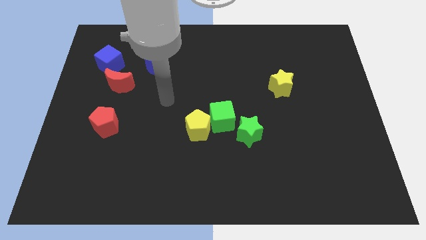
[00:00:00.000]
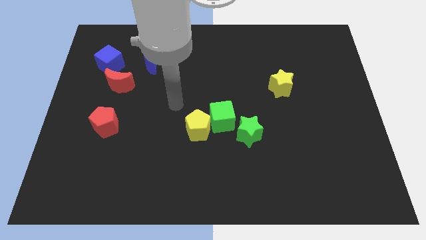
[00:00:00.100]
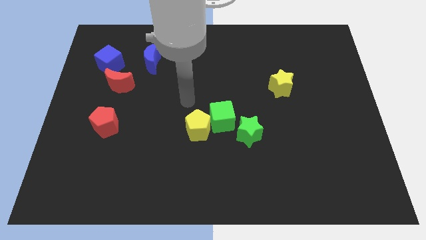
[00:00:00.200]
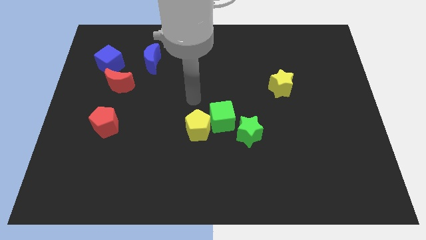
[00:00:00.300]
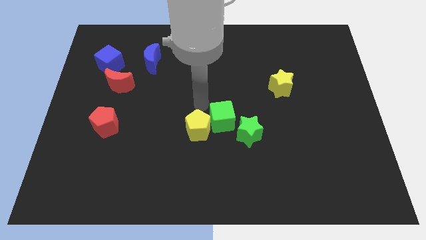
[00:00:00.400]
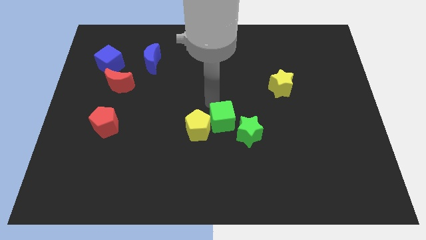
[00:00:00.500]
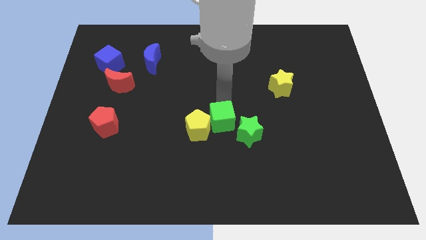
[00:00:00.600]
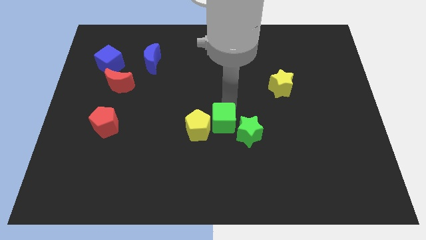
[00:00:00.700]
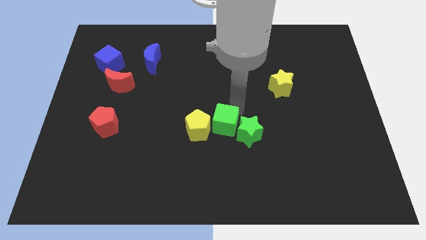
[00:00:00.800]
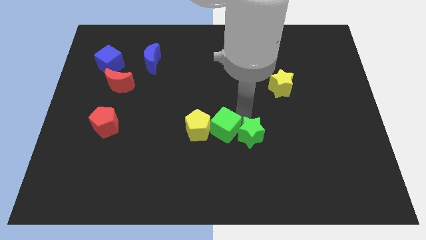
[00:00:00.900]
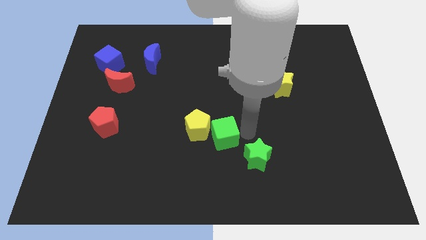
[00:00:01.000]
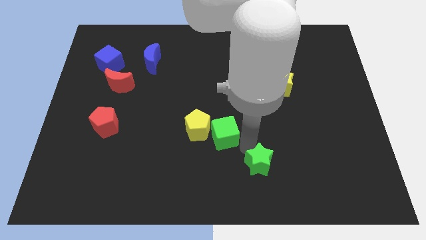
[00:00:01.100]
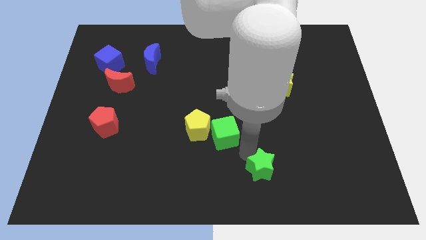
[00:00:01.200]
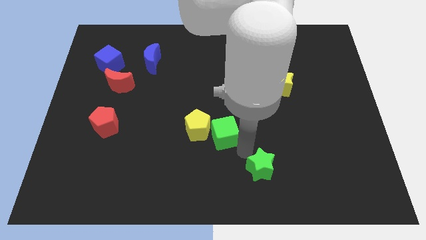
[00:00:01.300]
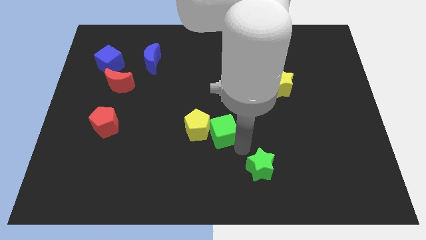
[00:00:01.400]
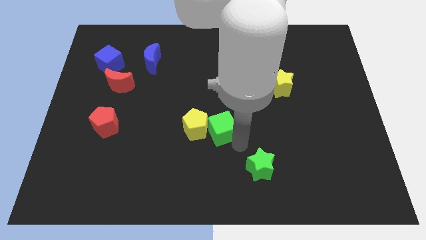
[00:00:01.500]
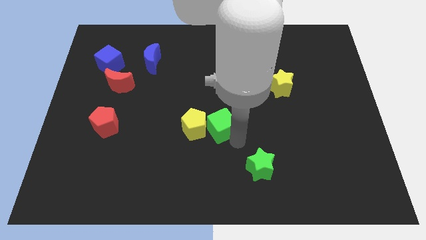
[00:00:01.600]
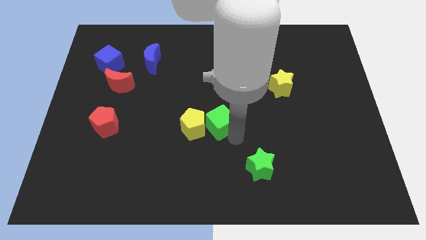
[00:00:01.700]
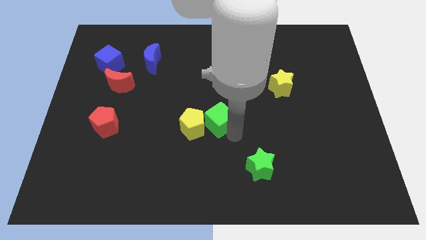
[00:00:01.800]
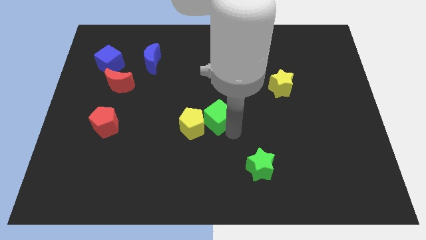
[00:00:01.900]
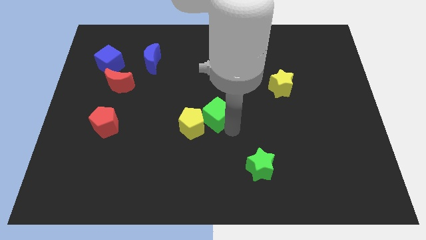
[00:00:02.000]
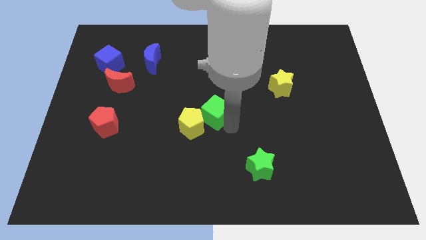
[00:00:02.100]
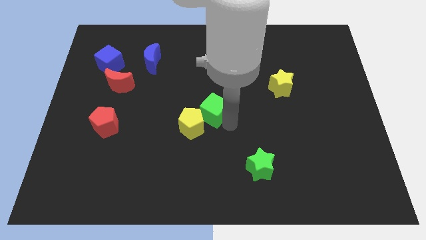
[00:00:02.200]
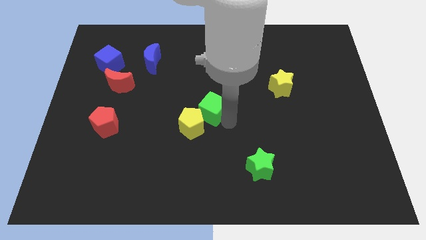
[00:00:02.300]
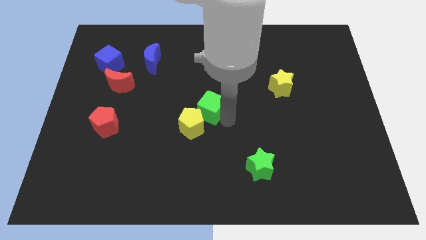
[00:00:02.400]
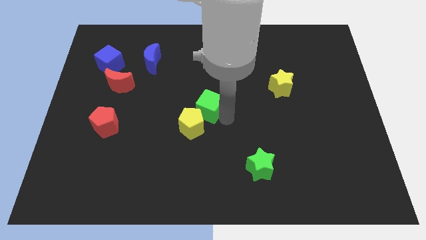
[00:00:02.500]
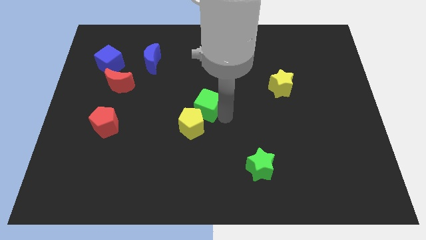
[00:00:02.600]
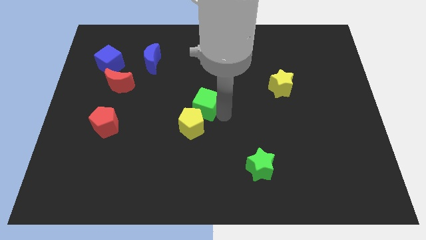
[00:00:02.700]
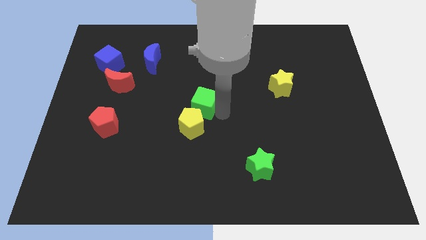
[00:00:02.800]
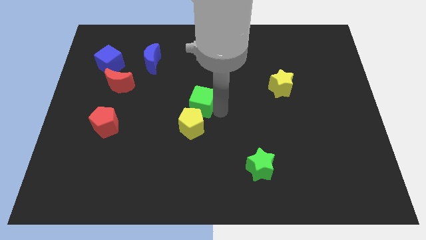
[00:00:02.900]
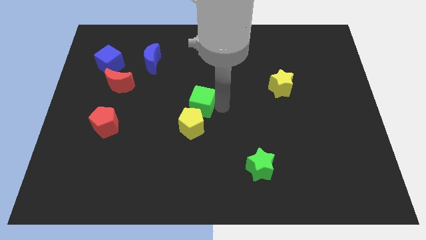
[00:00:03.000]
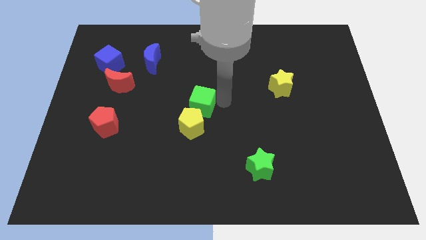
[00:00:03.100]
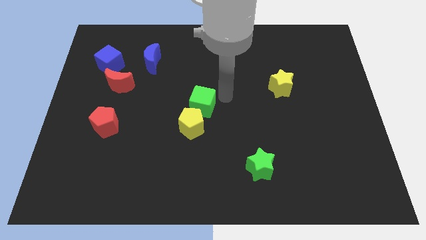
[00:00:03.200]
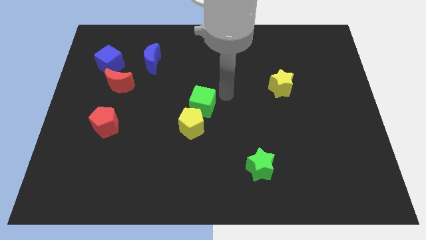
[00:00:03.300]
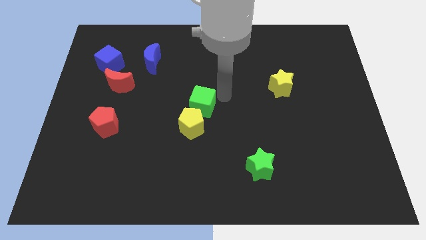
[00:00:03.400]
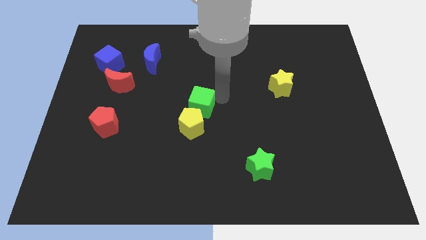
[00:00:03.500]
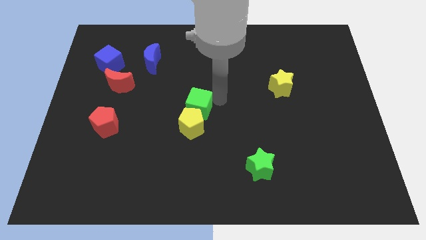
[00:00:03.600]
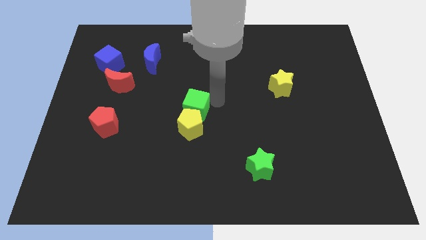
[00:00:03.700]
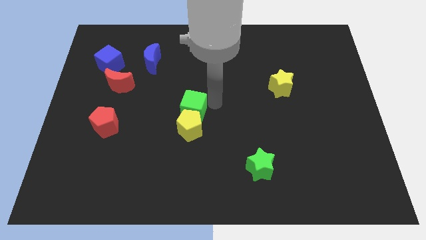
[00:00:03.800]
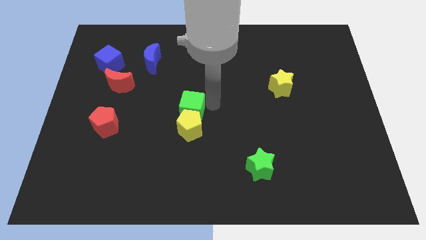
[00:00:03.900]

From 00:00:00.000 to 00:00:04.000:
move the green cube slightly to the left

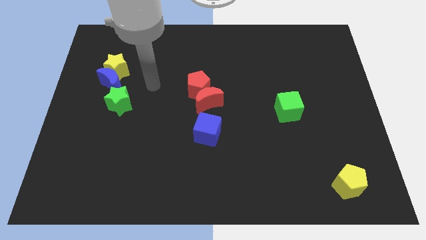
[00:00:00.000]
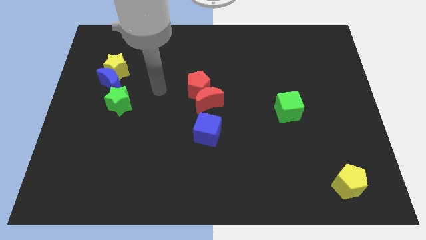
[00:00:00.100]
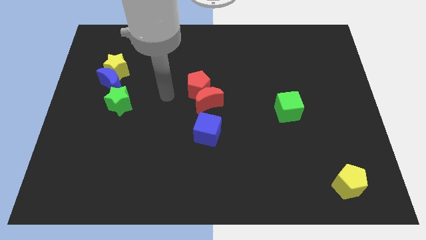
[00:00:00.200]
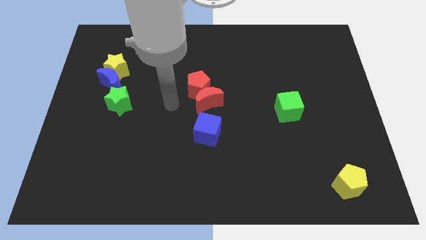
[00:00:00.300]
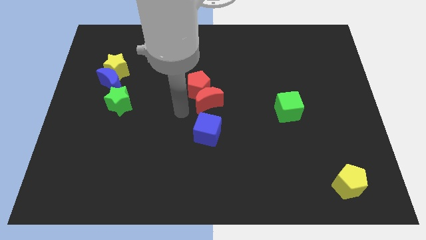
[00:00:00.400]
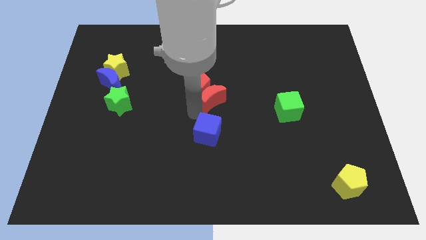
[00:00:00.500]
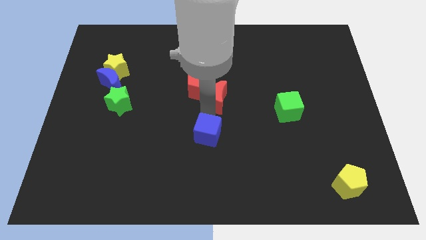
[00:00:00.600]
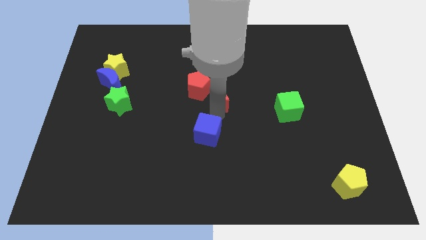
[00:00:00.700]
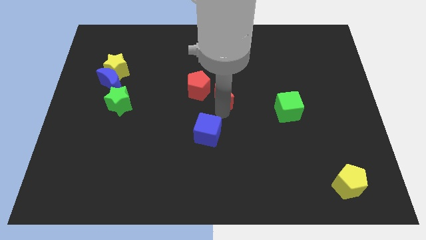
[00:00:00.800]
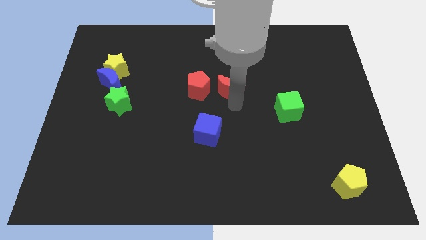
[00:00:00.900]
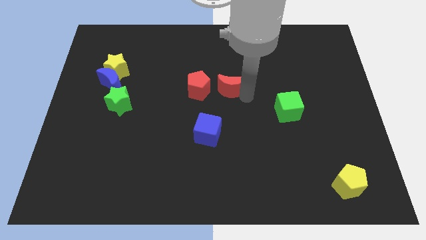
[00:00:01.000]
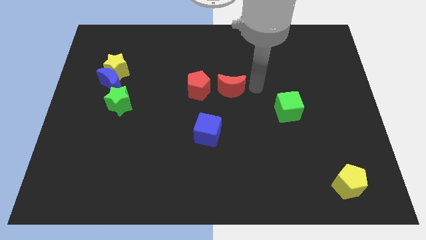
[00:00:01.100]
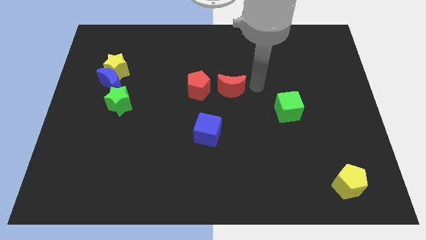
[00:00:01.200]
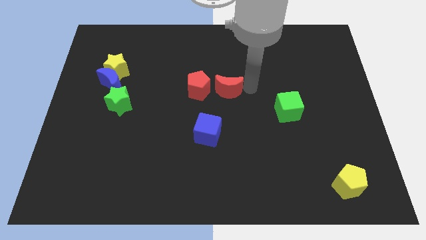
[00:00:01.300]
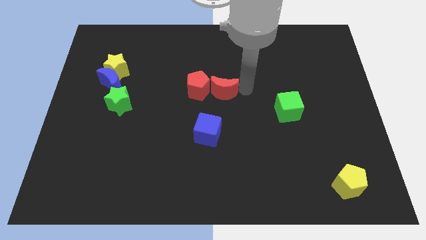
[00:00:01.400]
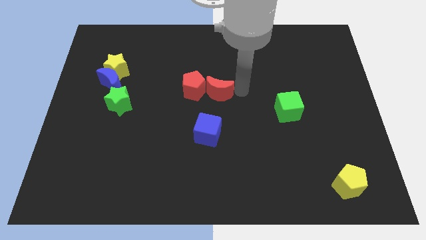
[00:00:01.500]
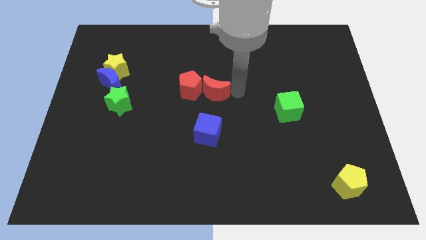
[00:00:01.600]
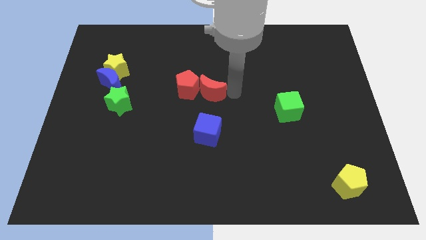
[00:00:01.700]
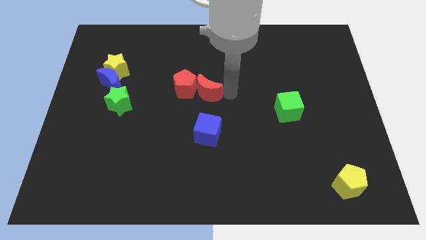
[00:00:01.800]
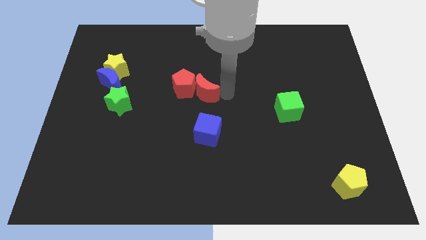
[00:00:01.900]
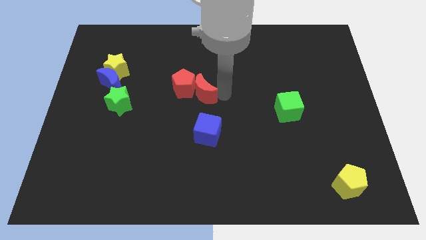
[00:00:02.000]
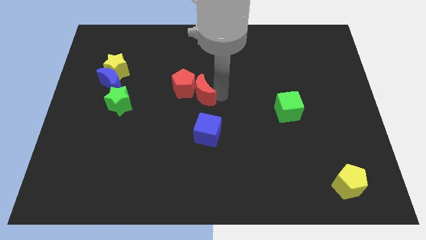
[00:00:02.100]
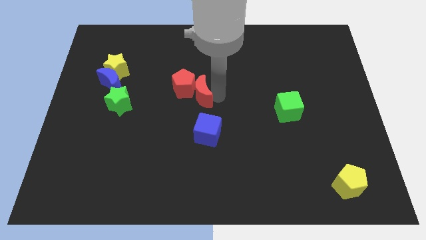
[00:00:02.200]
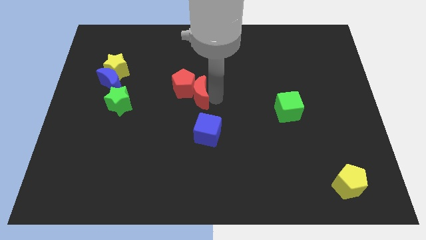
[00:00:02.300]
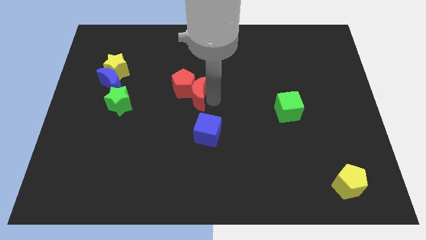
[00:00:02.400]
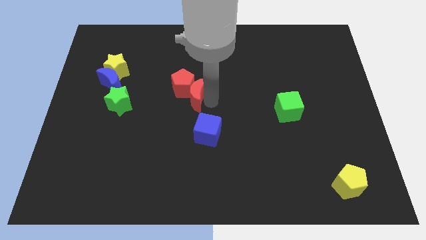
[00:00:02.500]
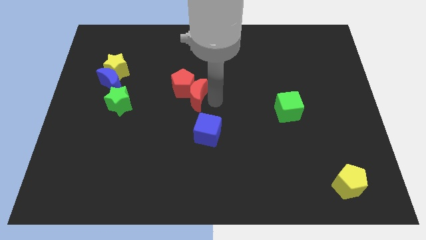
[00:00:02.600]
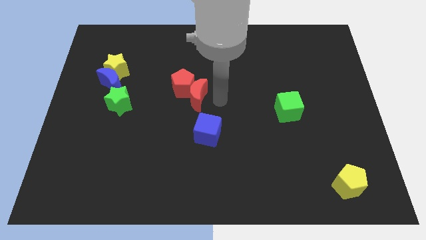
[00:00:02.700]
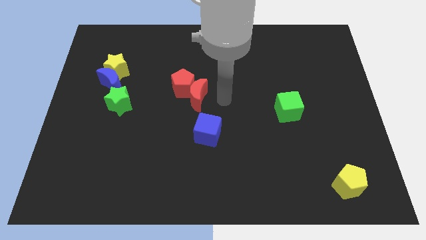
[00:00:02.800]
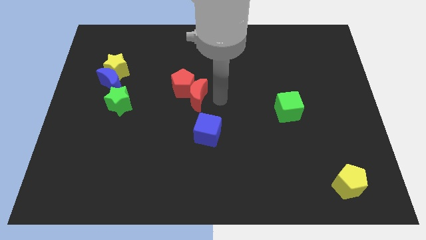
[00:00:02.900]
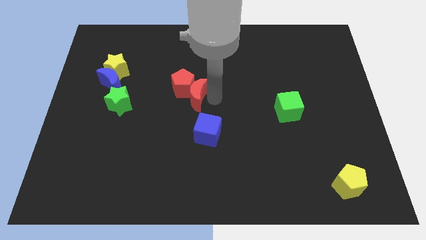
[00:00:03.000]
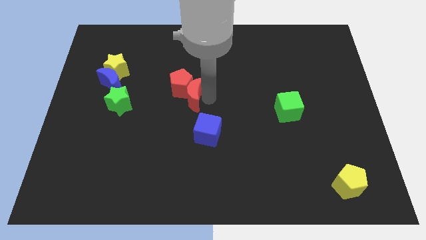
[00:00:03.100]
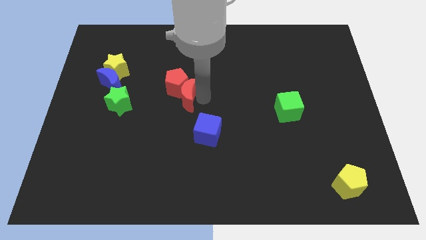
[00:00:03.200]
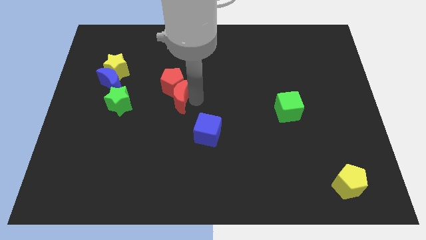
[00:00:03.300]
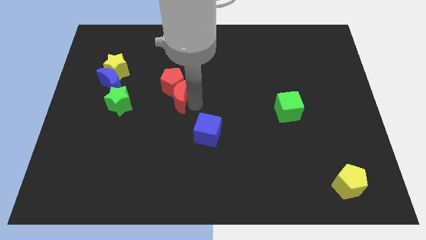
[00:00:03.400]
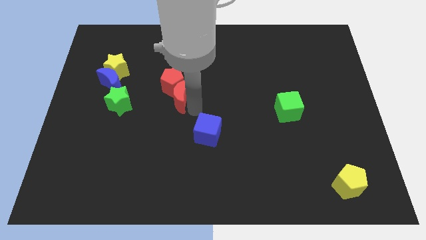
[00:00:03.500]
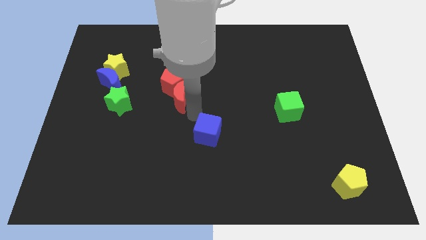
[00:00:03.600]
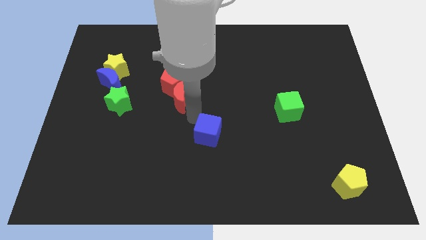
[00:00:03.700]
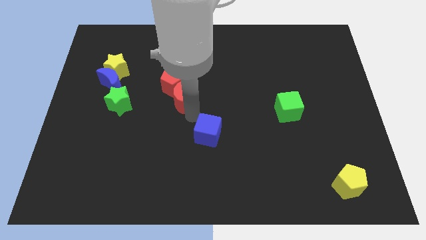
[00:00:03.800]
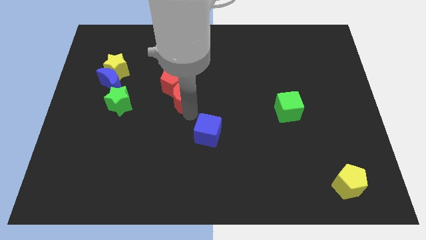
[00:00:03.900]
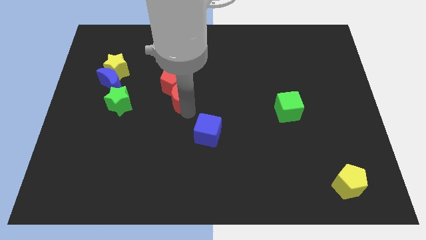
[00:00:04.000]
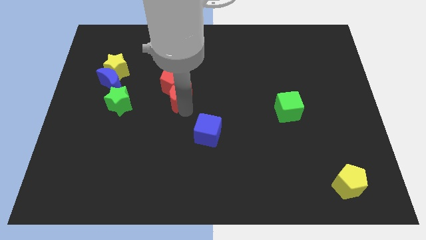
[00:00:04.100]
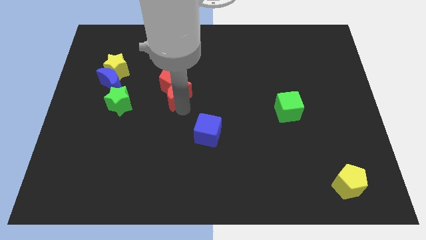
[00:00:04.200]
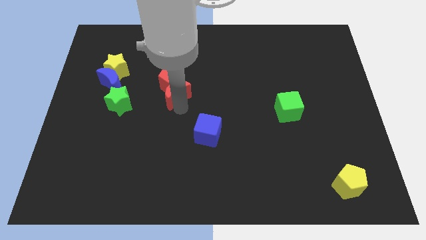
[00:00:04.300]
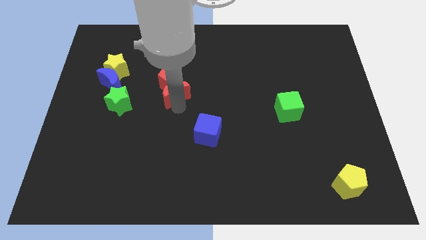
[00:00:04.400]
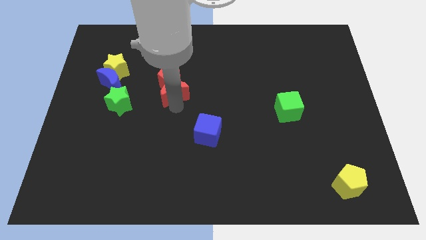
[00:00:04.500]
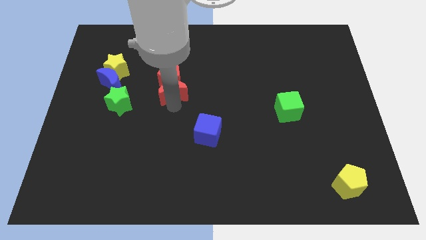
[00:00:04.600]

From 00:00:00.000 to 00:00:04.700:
move the red moon diagonally upwards and to the left a bit
